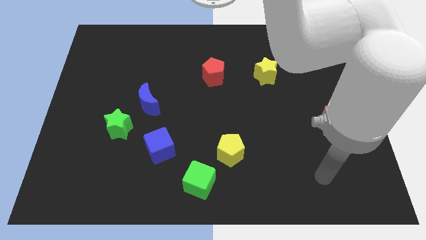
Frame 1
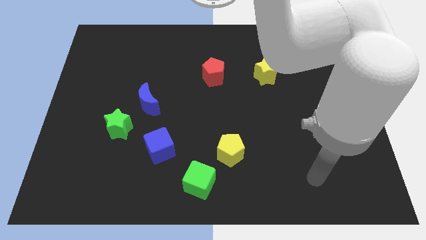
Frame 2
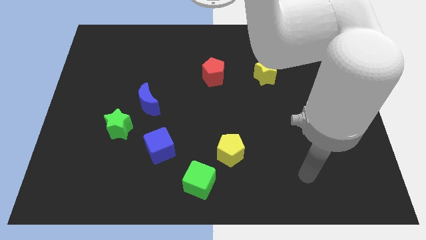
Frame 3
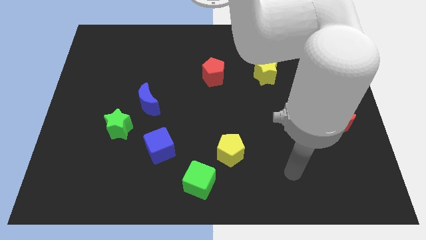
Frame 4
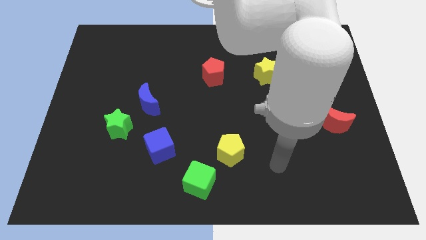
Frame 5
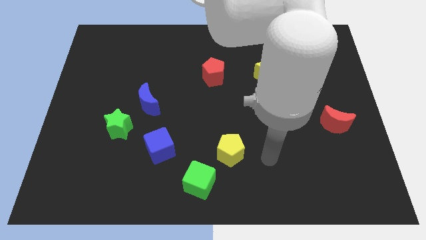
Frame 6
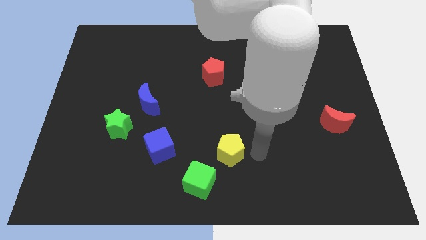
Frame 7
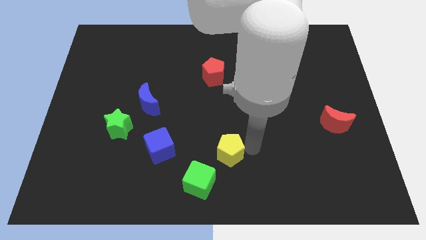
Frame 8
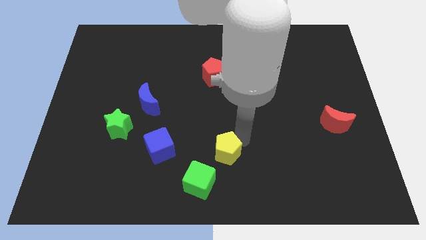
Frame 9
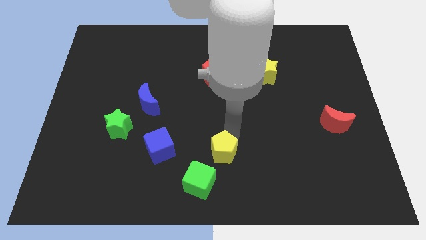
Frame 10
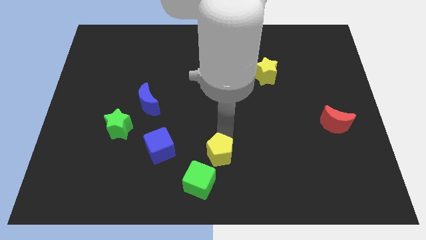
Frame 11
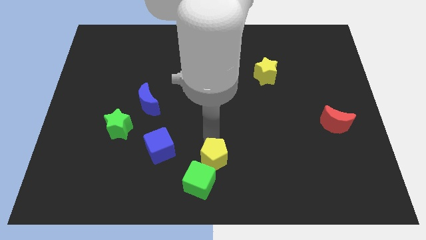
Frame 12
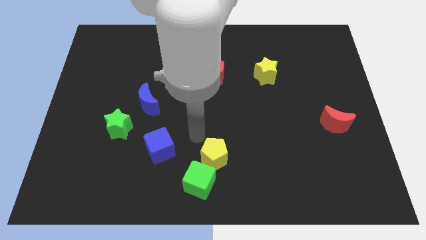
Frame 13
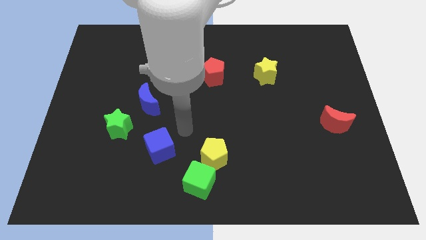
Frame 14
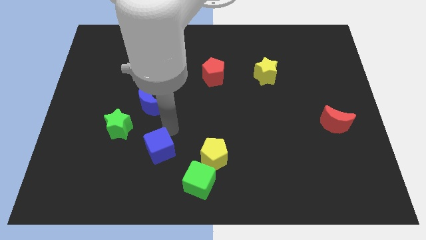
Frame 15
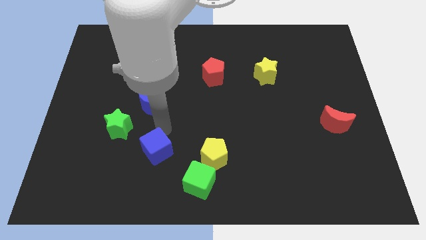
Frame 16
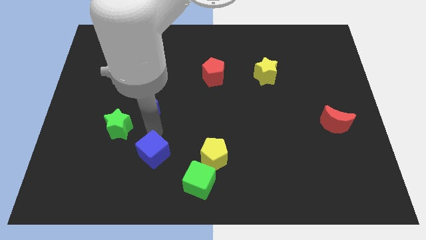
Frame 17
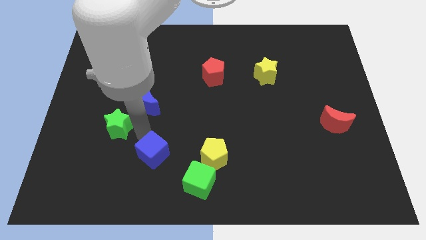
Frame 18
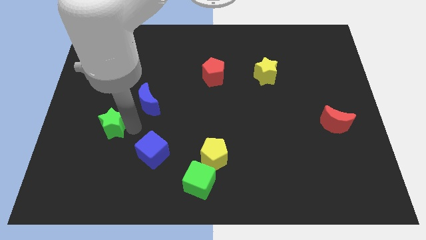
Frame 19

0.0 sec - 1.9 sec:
separate the blue moon from the green star

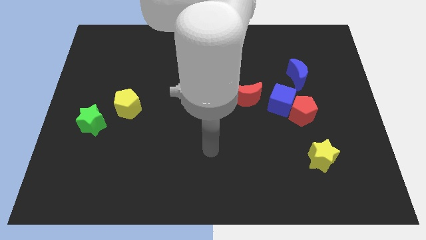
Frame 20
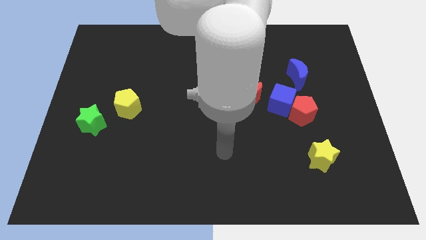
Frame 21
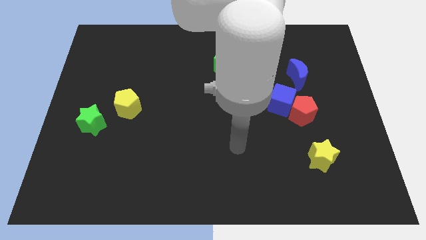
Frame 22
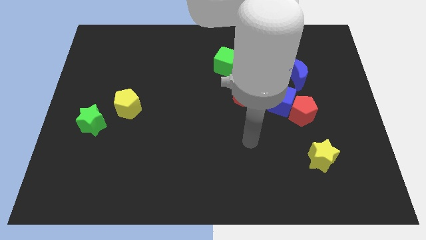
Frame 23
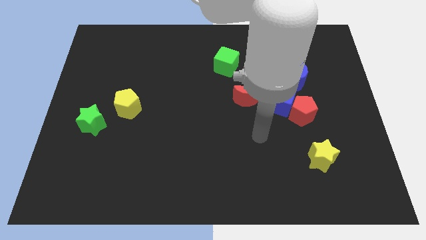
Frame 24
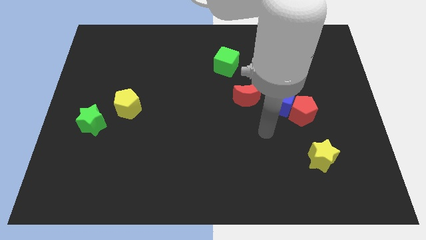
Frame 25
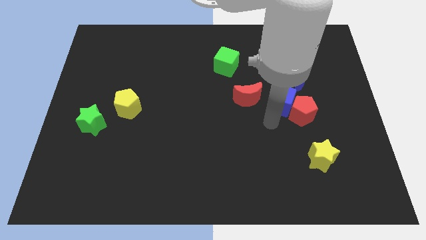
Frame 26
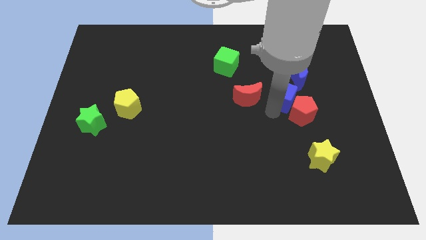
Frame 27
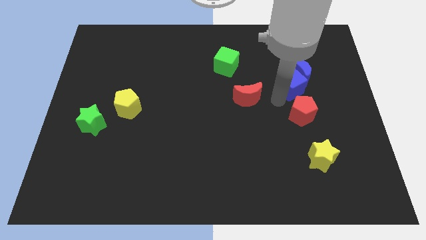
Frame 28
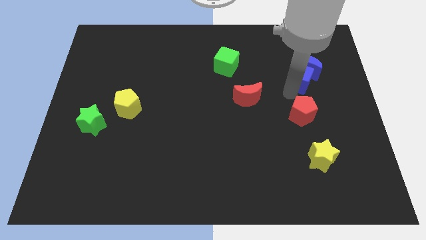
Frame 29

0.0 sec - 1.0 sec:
separate the red pentagon from the blue cube

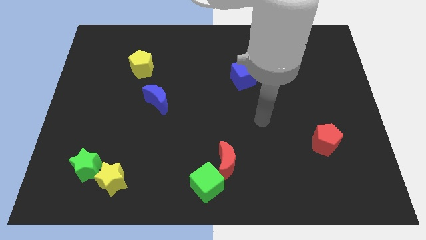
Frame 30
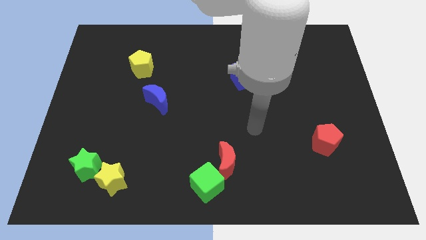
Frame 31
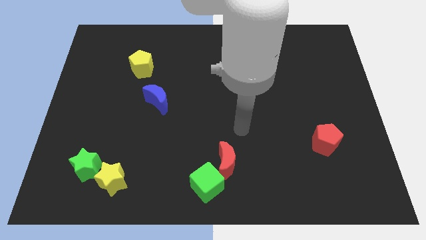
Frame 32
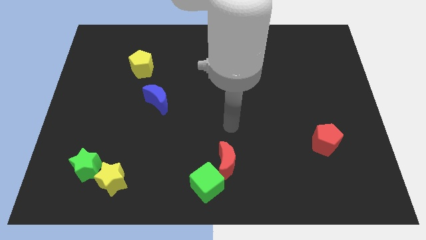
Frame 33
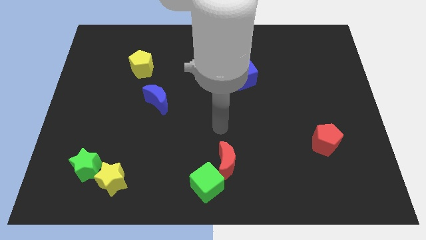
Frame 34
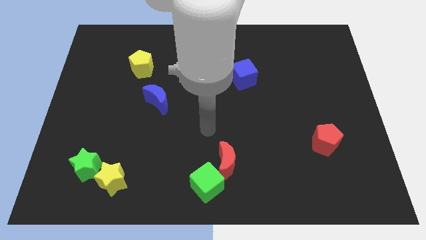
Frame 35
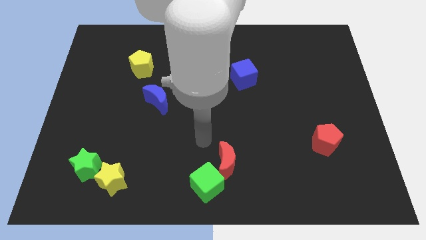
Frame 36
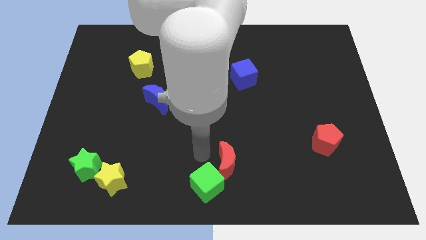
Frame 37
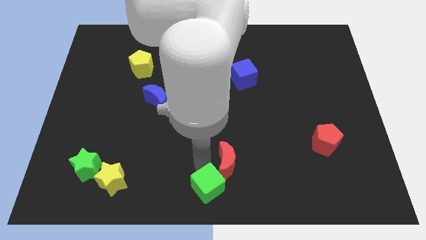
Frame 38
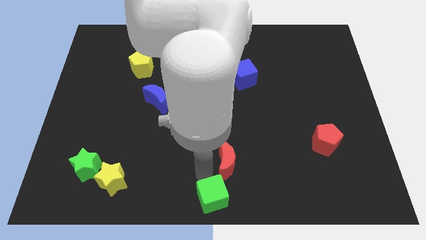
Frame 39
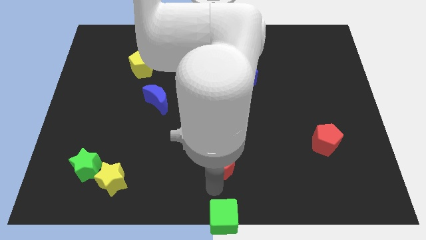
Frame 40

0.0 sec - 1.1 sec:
move the red moon away from the green cube

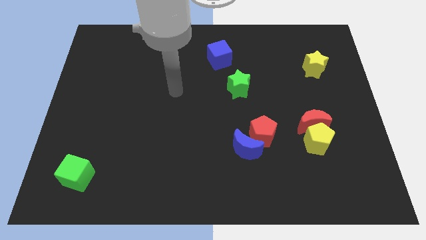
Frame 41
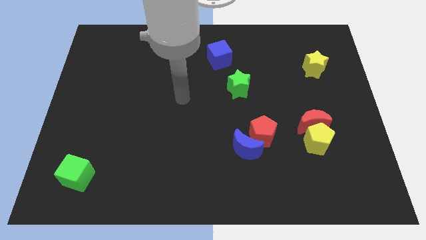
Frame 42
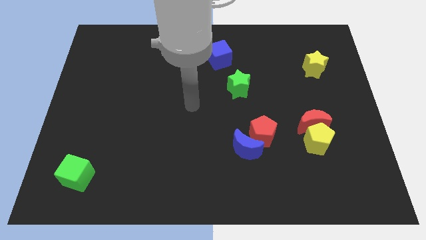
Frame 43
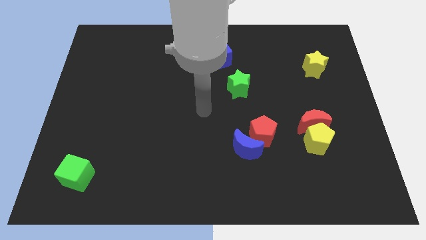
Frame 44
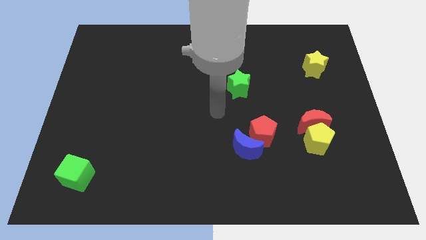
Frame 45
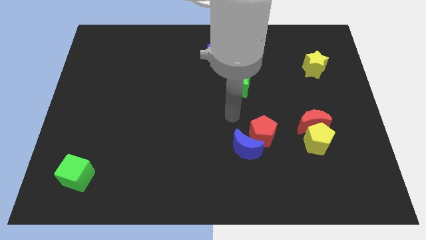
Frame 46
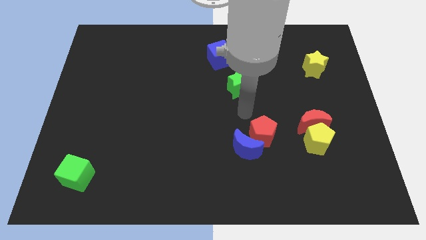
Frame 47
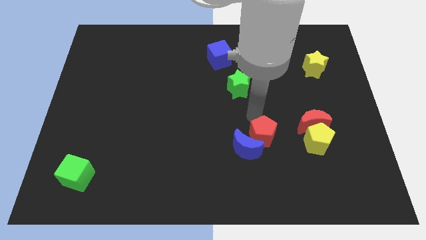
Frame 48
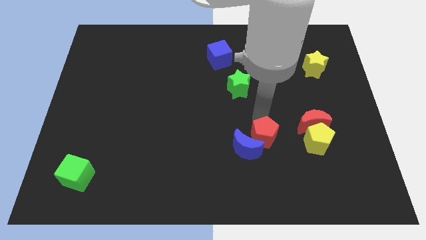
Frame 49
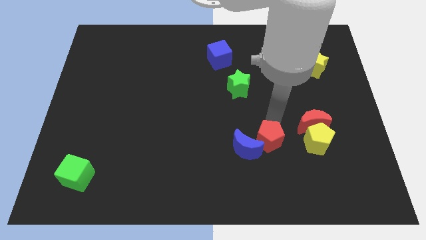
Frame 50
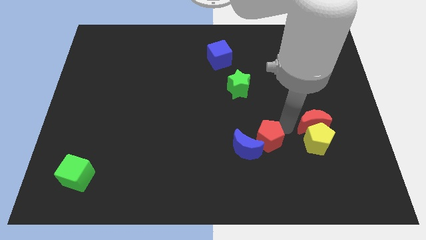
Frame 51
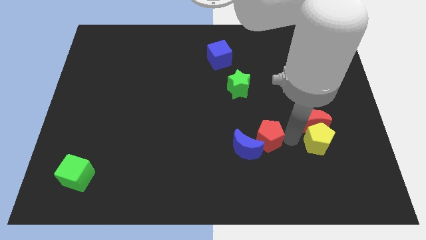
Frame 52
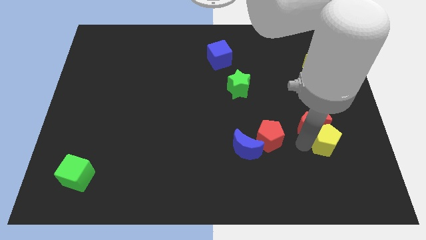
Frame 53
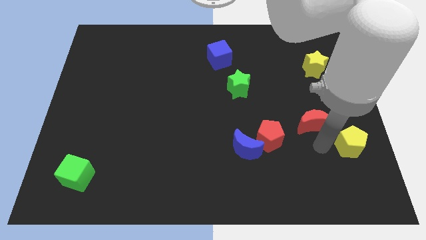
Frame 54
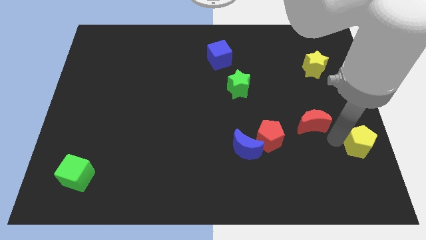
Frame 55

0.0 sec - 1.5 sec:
move the red moon away from the yellow pentagon

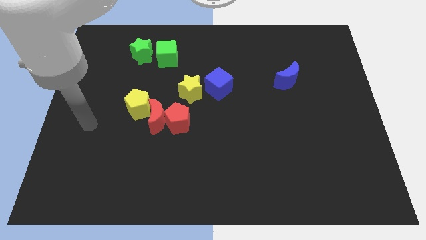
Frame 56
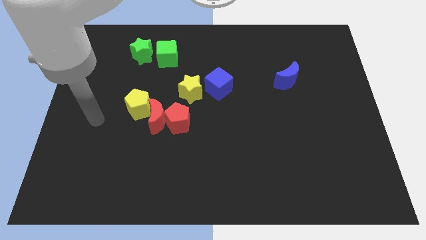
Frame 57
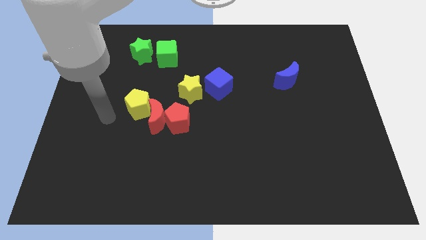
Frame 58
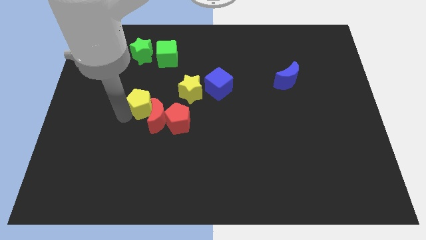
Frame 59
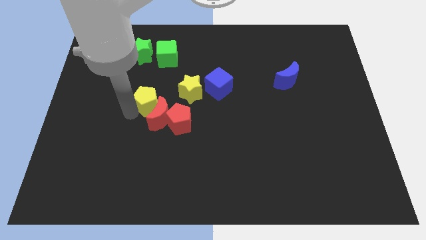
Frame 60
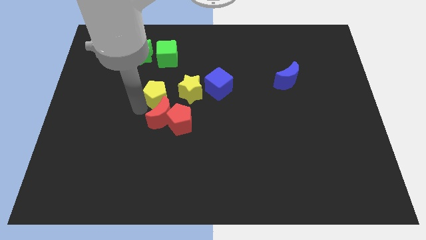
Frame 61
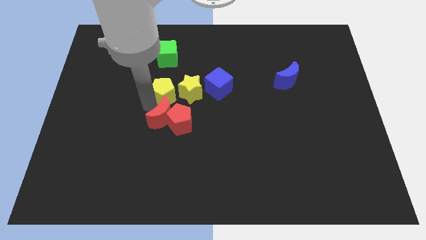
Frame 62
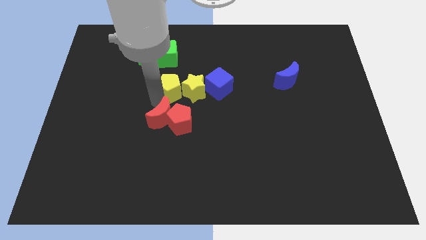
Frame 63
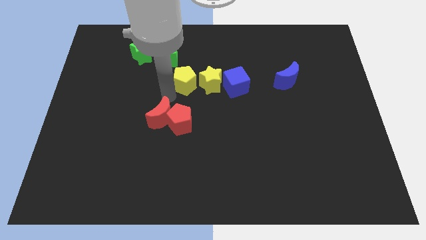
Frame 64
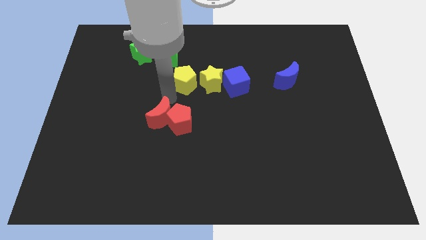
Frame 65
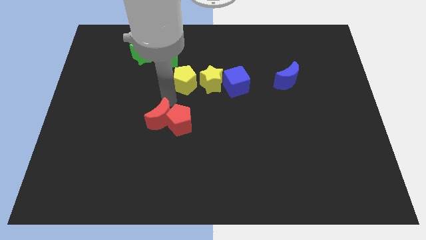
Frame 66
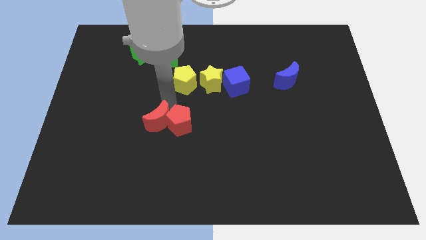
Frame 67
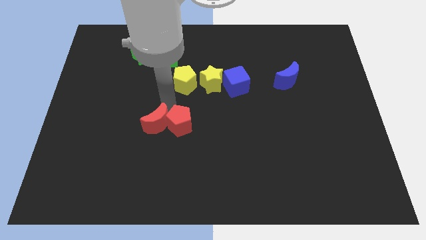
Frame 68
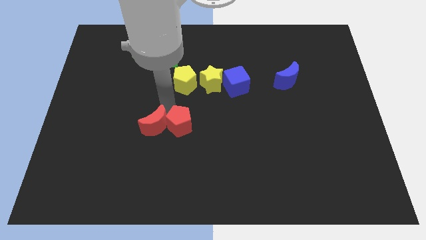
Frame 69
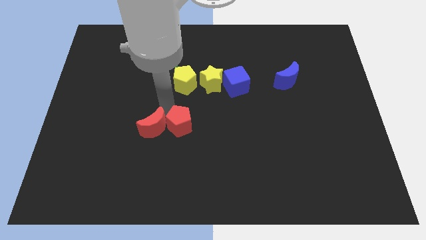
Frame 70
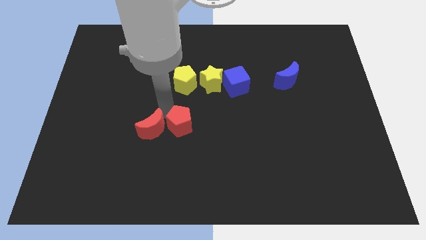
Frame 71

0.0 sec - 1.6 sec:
separate the red moon from the red pentagon and yellow pentagon

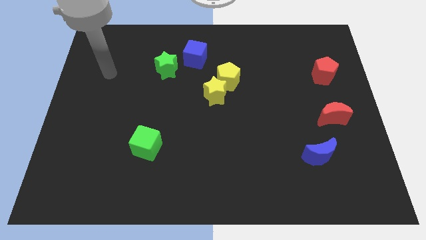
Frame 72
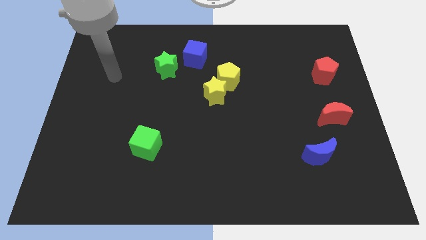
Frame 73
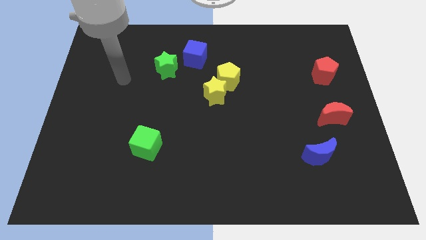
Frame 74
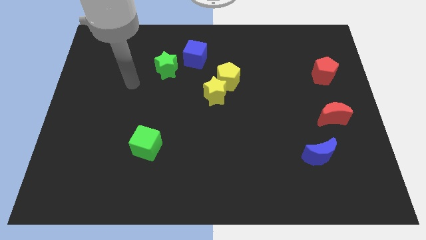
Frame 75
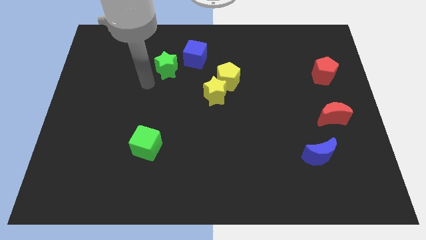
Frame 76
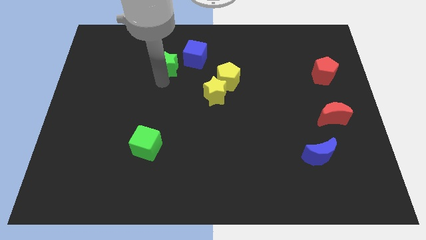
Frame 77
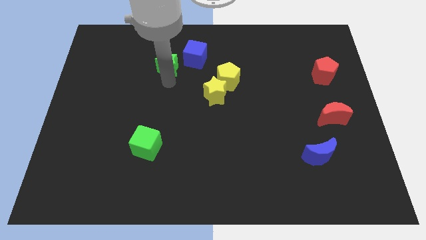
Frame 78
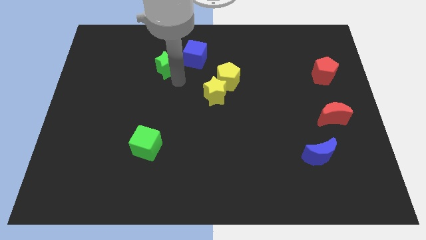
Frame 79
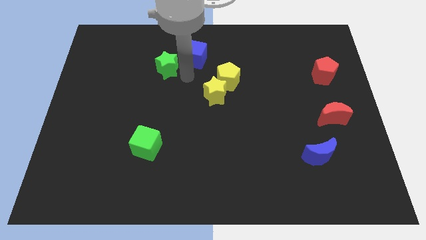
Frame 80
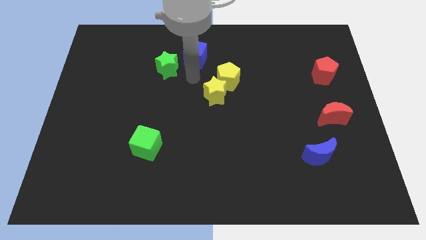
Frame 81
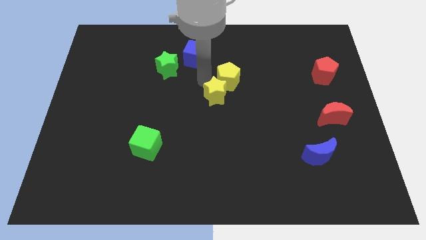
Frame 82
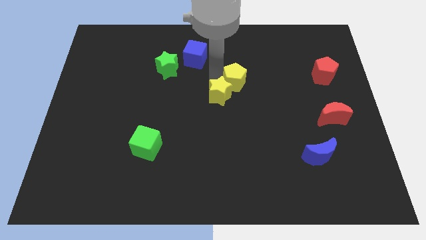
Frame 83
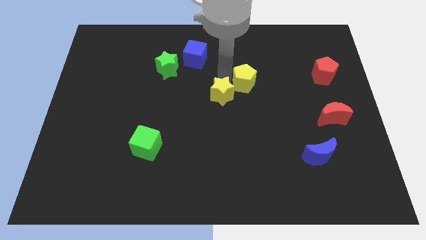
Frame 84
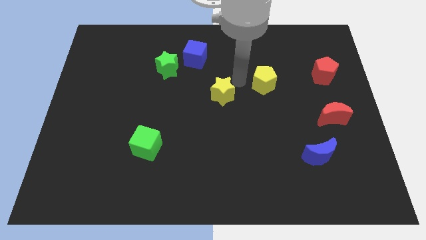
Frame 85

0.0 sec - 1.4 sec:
separate the yellow star from the yellow pentagon

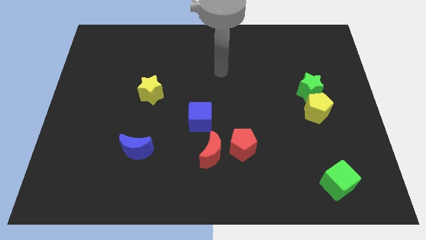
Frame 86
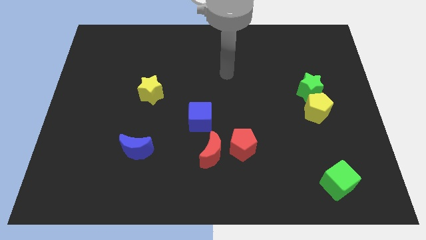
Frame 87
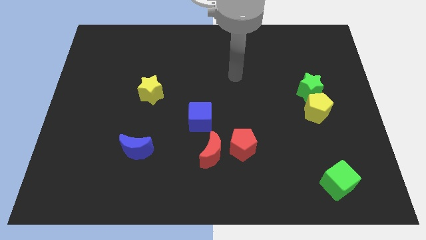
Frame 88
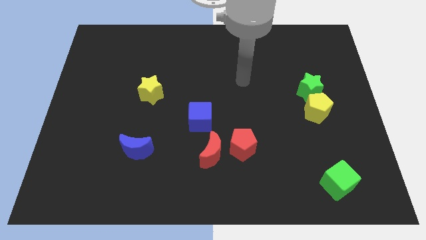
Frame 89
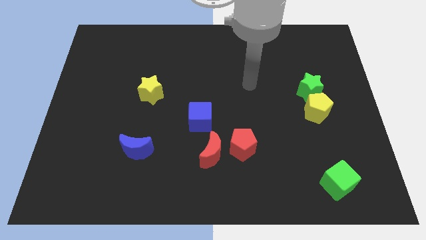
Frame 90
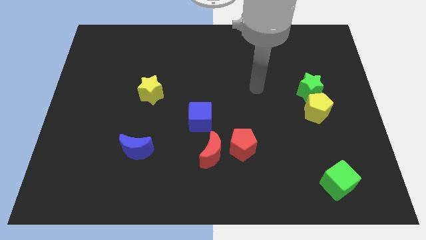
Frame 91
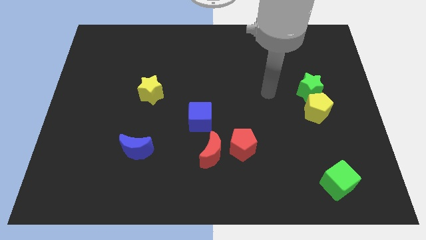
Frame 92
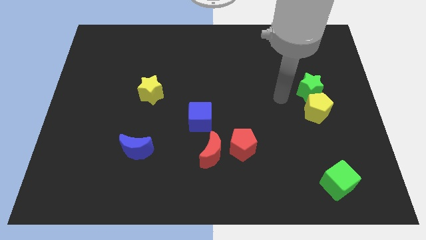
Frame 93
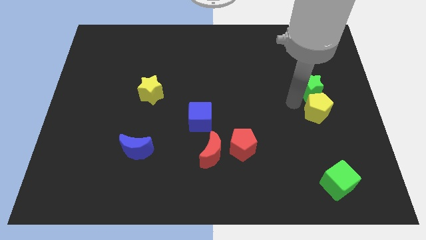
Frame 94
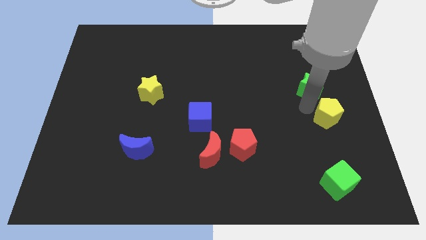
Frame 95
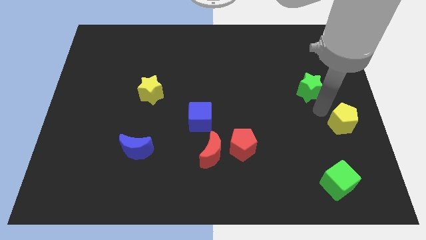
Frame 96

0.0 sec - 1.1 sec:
move the green star away from the yellow pentagon
